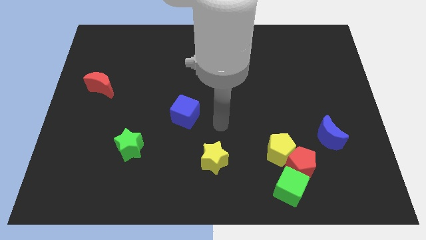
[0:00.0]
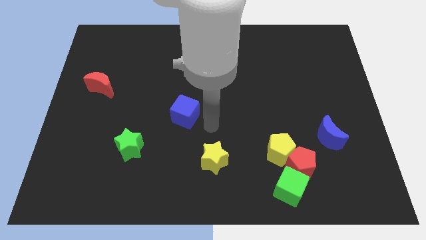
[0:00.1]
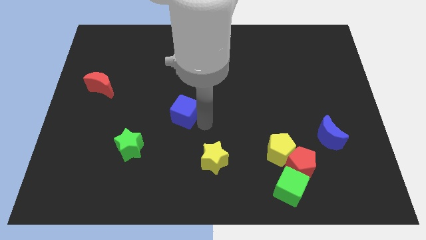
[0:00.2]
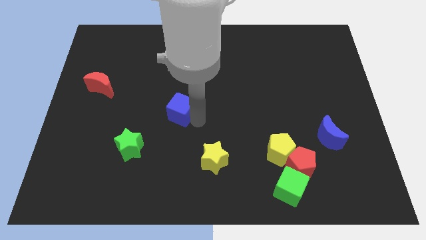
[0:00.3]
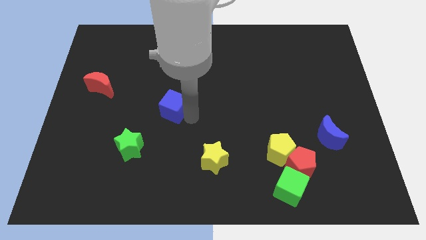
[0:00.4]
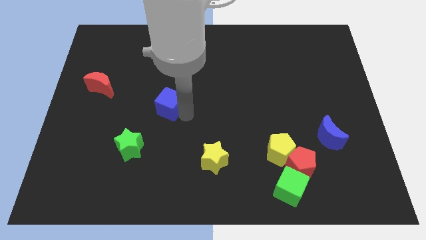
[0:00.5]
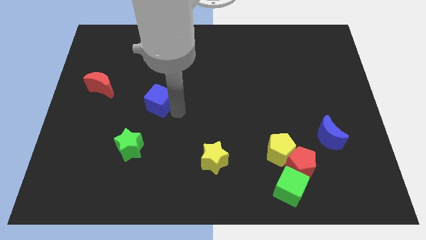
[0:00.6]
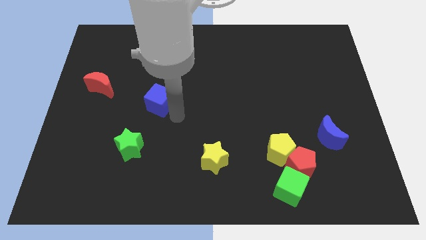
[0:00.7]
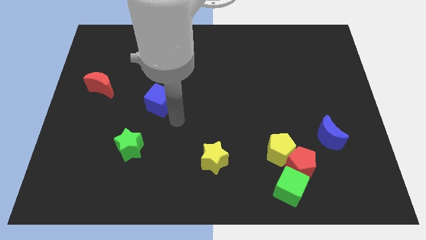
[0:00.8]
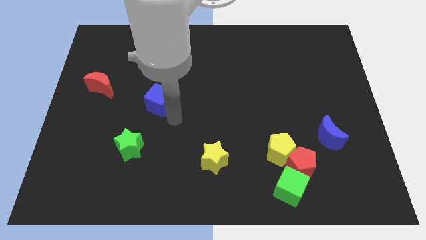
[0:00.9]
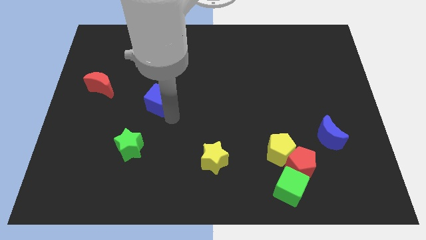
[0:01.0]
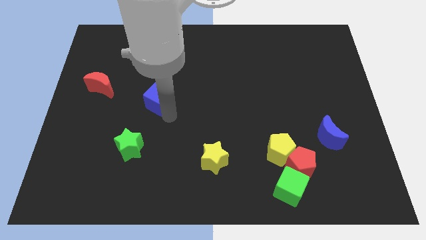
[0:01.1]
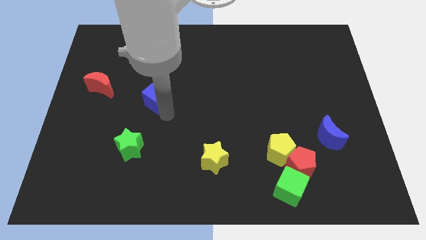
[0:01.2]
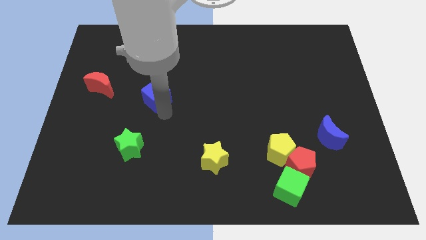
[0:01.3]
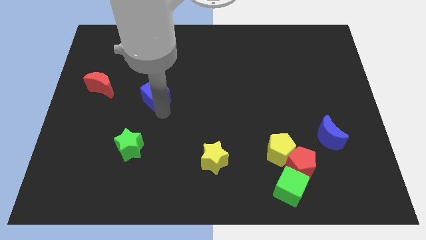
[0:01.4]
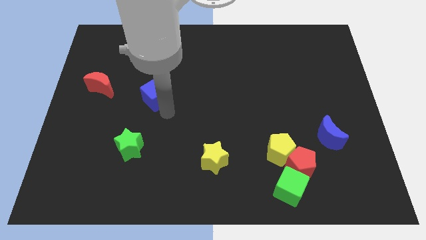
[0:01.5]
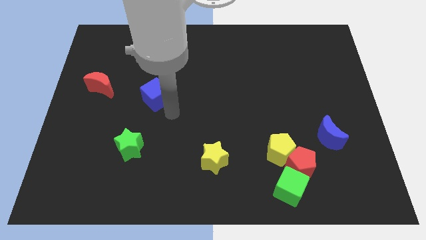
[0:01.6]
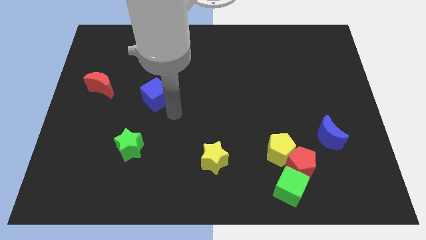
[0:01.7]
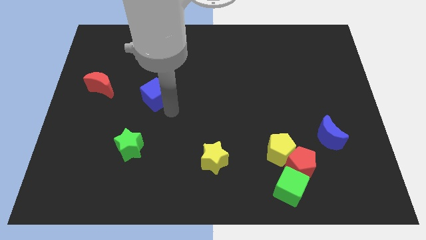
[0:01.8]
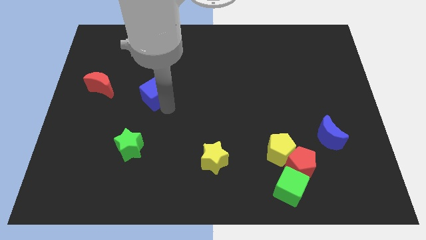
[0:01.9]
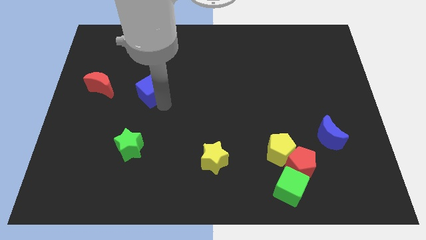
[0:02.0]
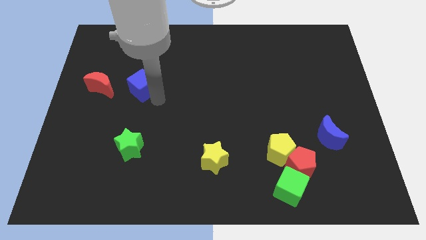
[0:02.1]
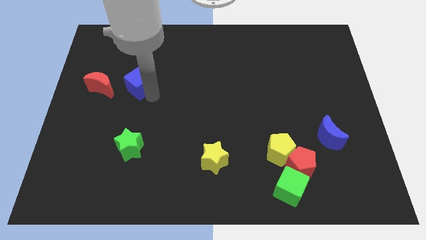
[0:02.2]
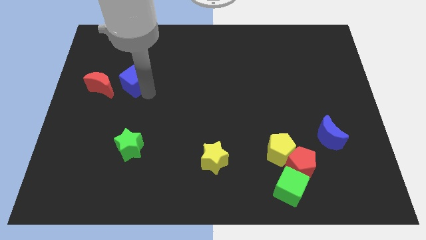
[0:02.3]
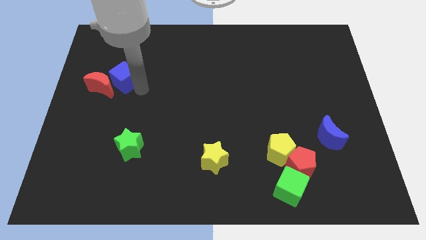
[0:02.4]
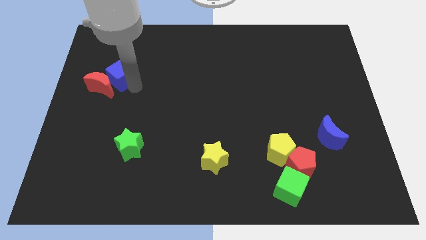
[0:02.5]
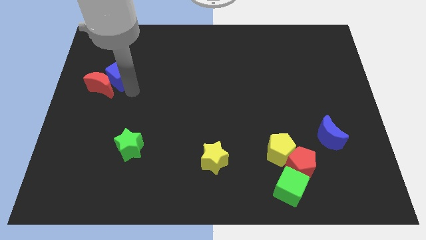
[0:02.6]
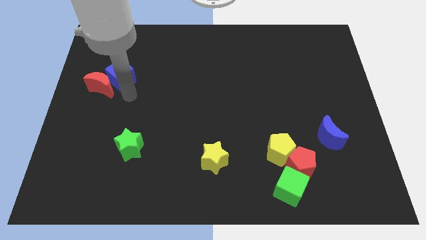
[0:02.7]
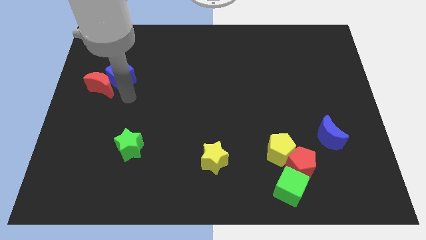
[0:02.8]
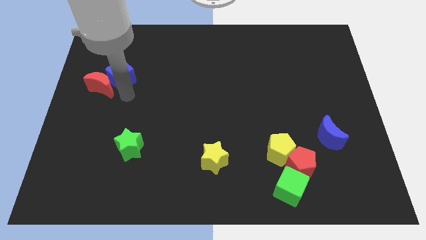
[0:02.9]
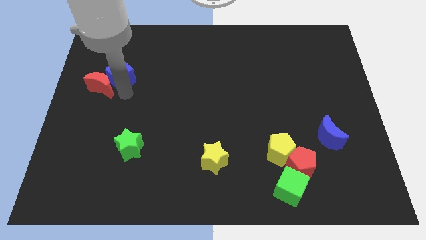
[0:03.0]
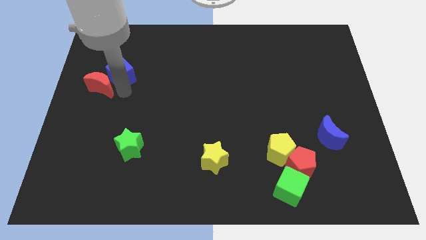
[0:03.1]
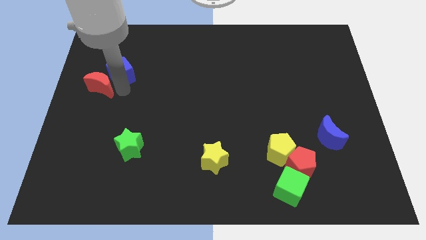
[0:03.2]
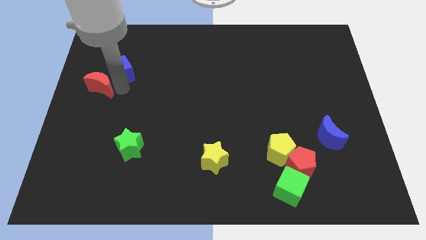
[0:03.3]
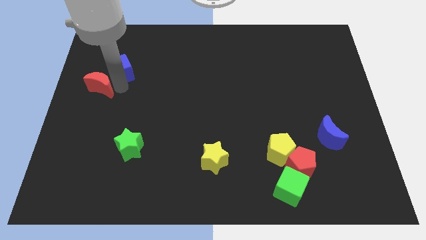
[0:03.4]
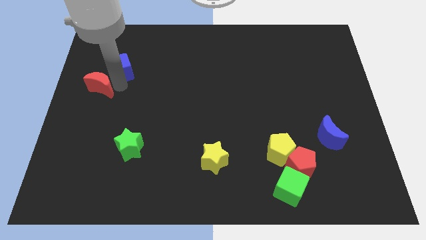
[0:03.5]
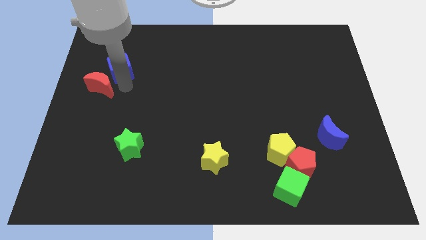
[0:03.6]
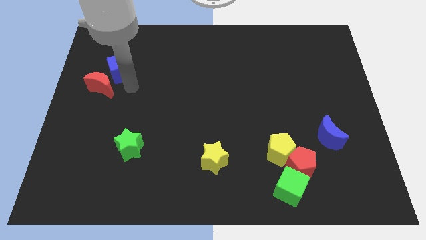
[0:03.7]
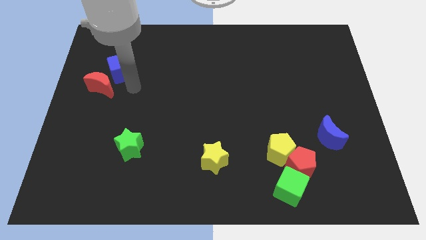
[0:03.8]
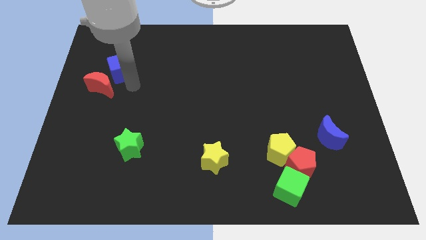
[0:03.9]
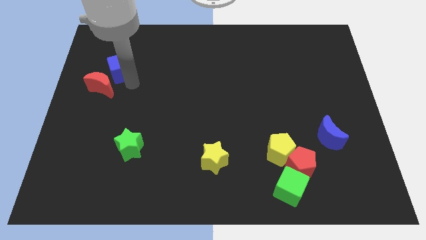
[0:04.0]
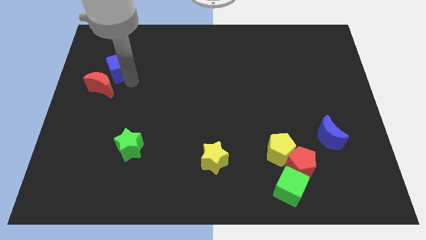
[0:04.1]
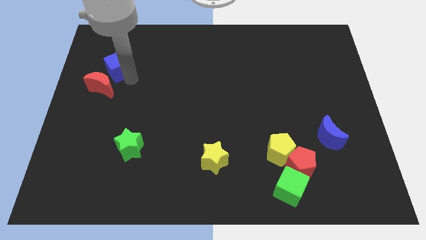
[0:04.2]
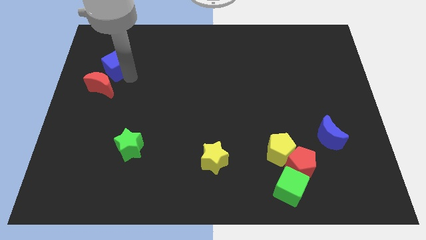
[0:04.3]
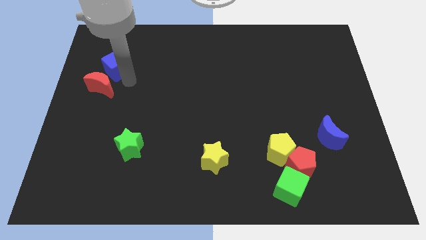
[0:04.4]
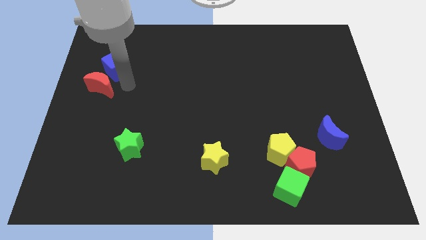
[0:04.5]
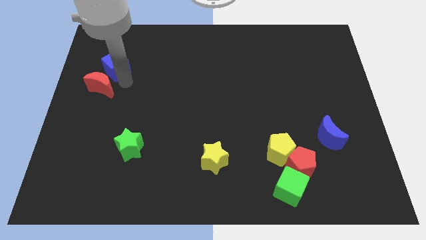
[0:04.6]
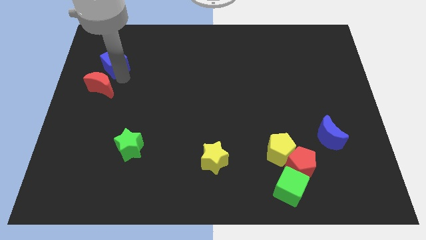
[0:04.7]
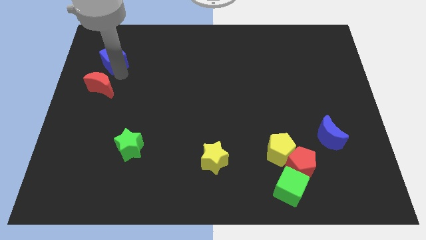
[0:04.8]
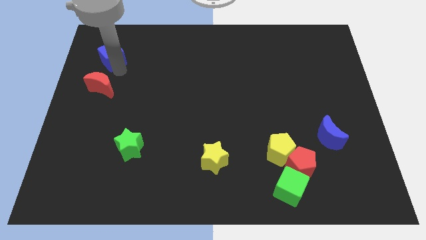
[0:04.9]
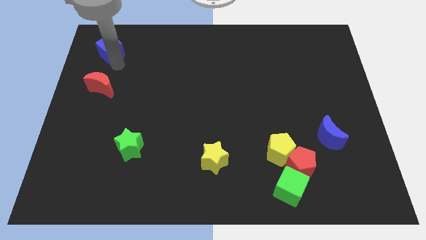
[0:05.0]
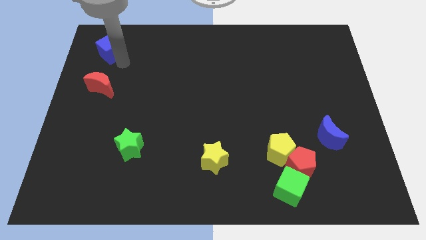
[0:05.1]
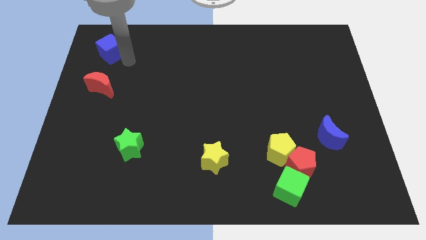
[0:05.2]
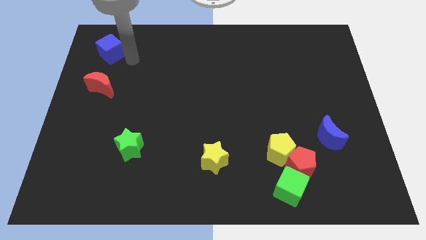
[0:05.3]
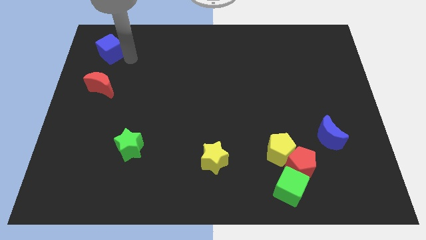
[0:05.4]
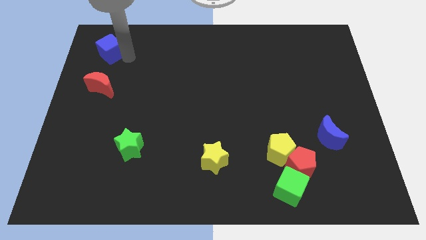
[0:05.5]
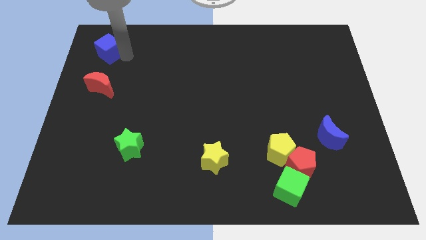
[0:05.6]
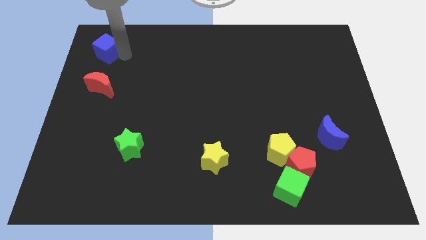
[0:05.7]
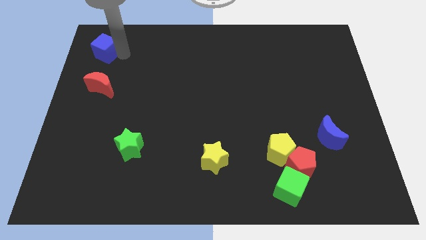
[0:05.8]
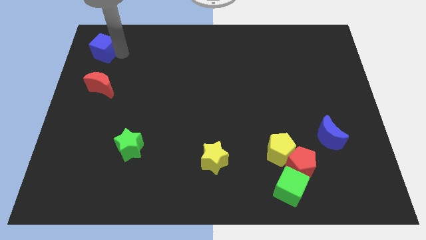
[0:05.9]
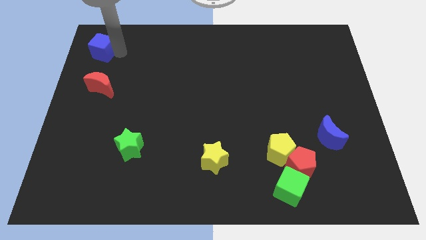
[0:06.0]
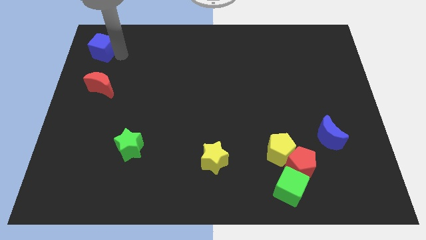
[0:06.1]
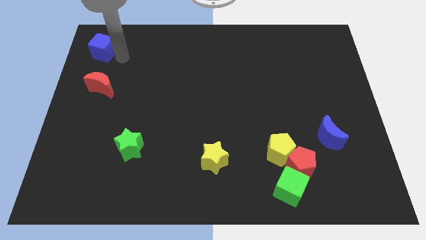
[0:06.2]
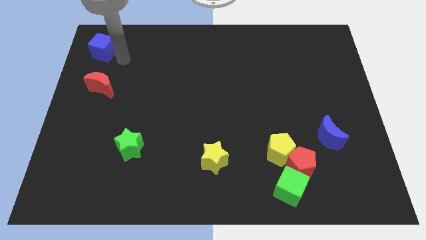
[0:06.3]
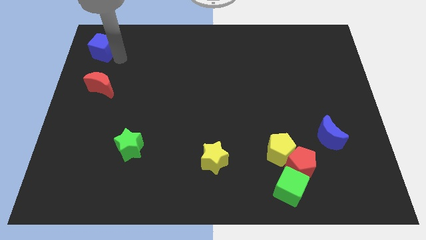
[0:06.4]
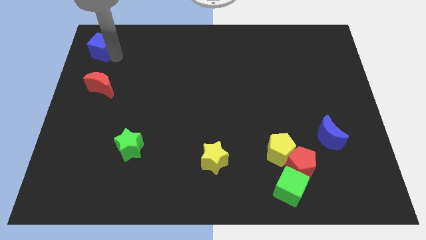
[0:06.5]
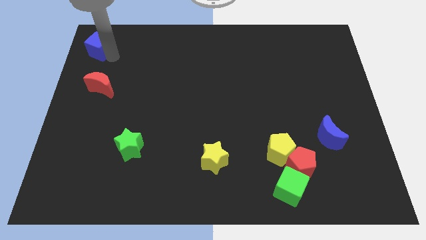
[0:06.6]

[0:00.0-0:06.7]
put the blue cube to the top left of the board
